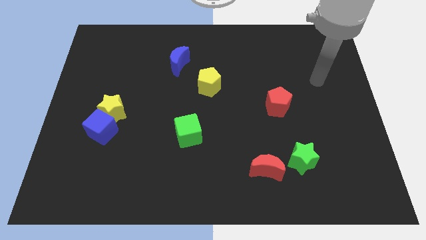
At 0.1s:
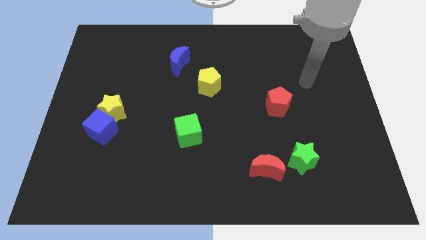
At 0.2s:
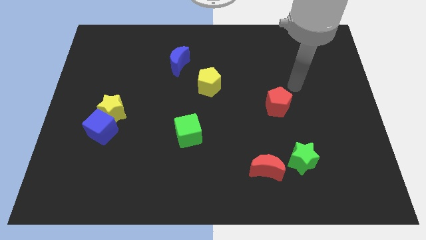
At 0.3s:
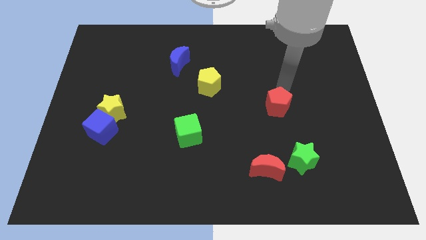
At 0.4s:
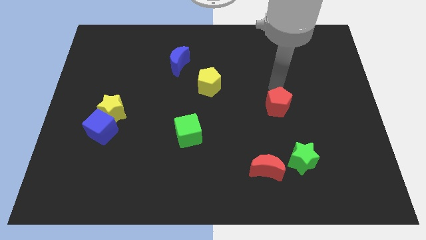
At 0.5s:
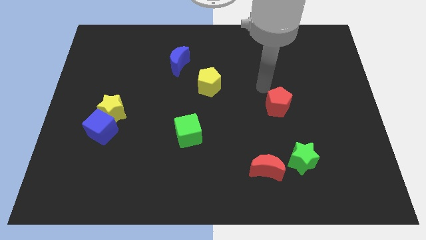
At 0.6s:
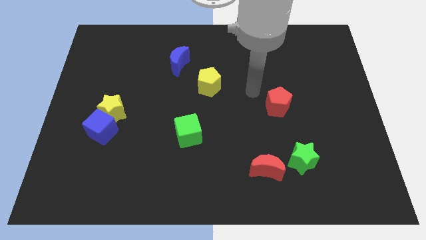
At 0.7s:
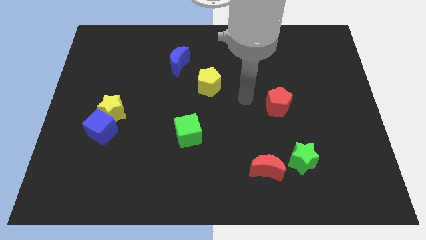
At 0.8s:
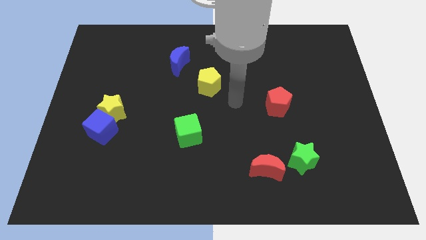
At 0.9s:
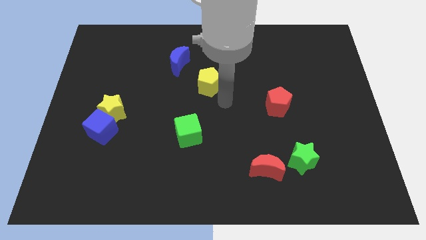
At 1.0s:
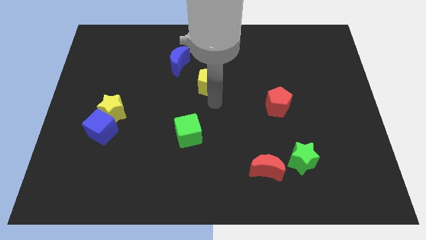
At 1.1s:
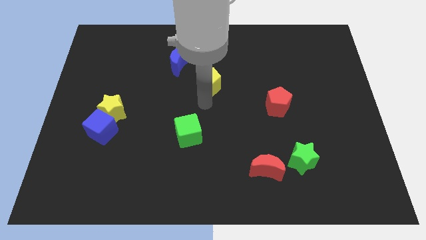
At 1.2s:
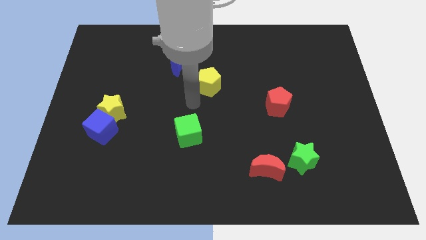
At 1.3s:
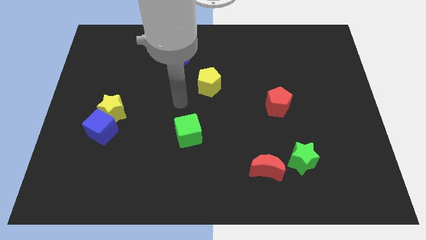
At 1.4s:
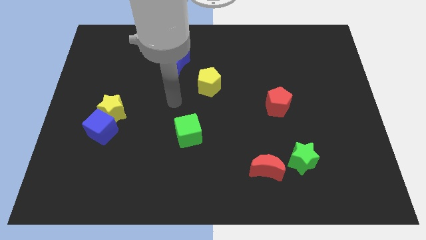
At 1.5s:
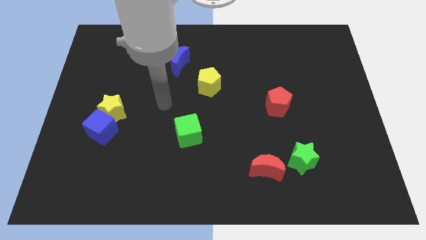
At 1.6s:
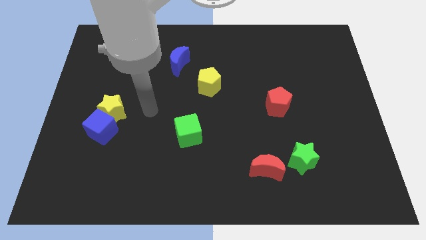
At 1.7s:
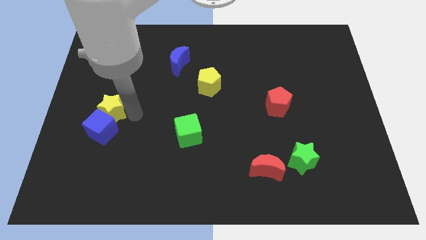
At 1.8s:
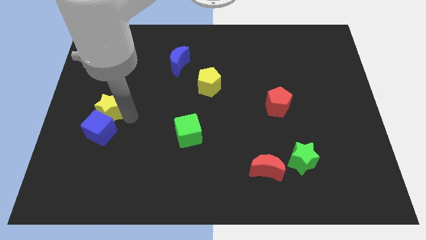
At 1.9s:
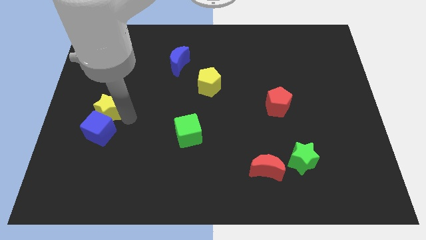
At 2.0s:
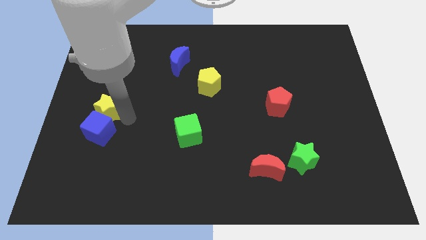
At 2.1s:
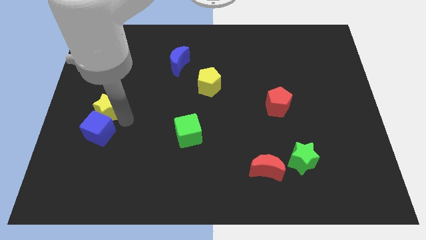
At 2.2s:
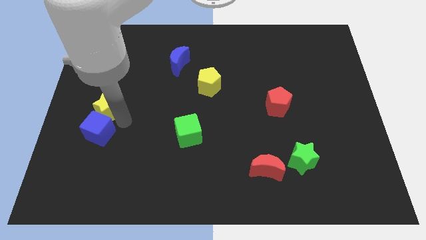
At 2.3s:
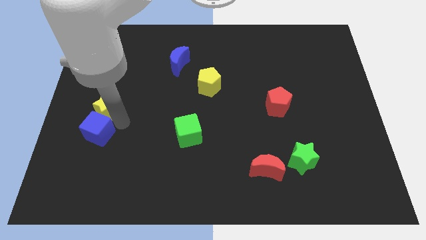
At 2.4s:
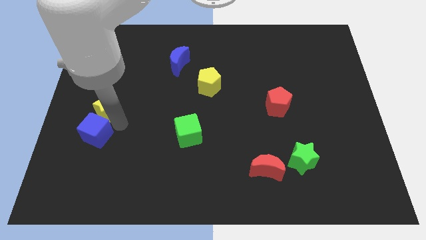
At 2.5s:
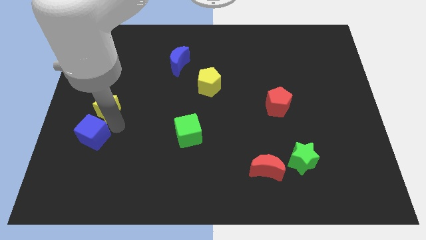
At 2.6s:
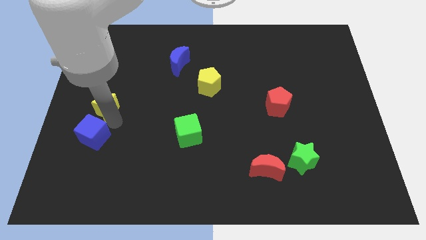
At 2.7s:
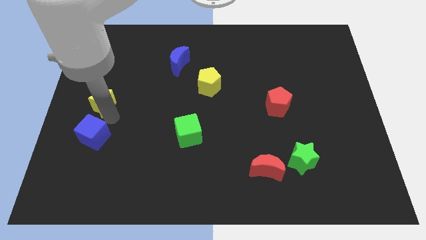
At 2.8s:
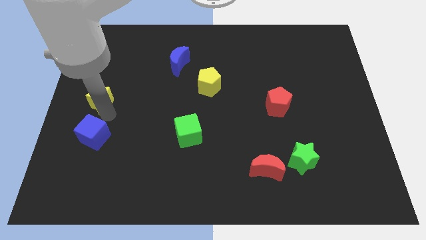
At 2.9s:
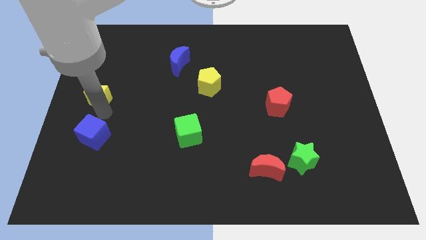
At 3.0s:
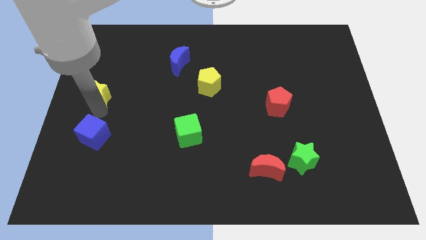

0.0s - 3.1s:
move the blue cube away from the yellow star

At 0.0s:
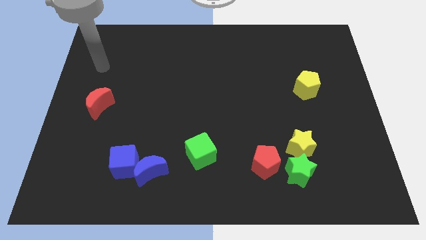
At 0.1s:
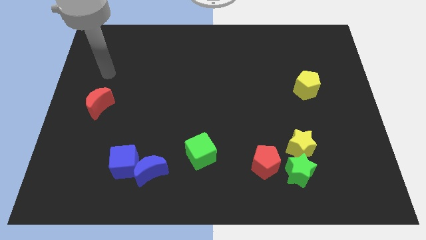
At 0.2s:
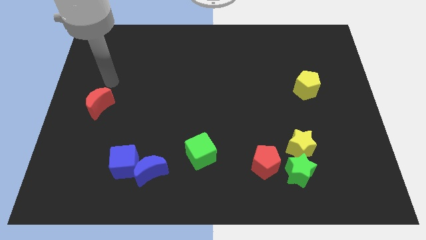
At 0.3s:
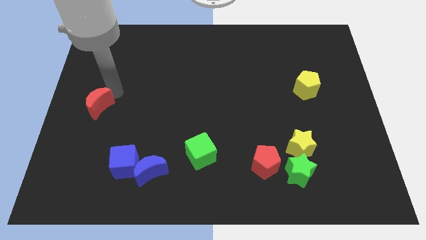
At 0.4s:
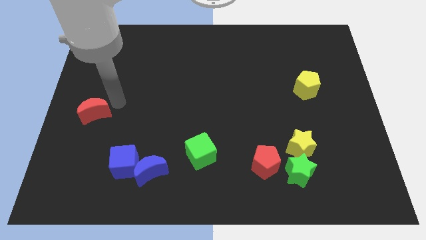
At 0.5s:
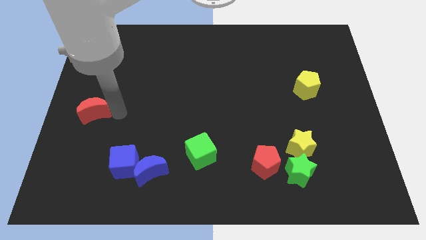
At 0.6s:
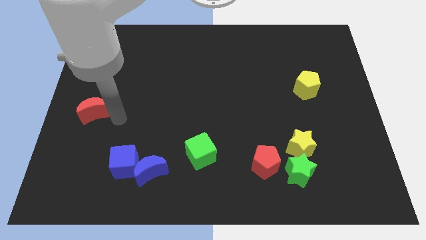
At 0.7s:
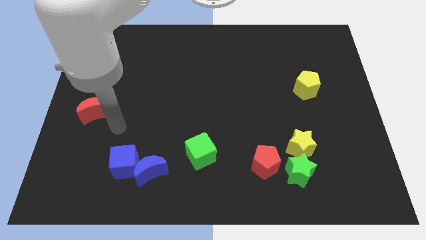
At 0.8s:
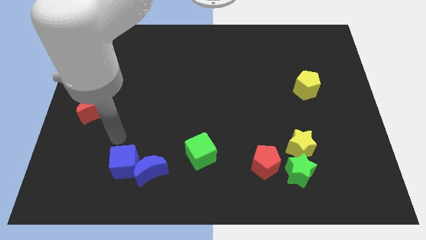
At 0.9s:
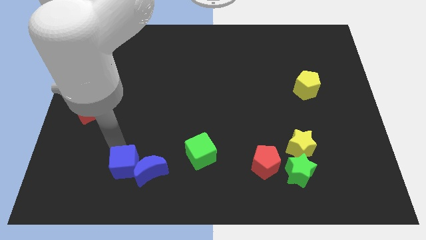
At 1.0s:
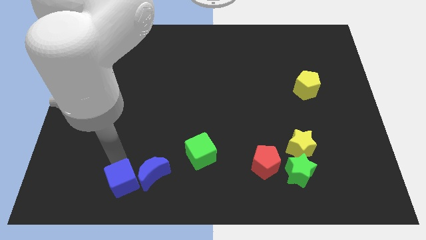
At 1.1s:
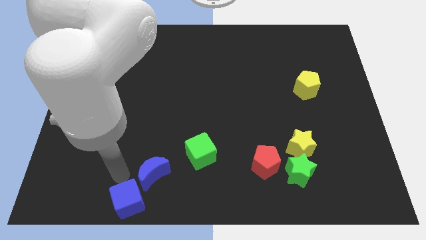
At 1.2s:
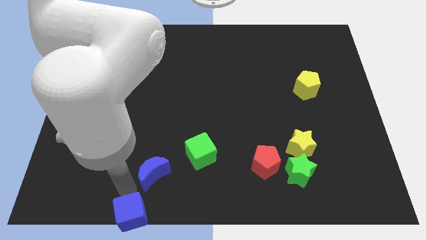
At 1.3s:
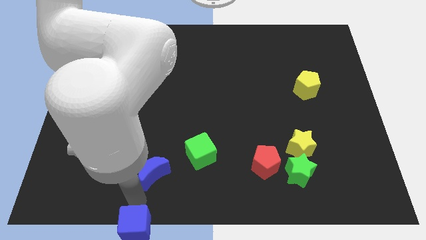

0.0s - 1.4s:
move the blue moon away from the blue cube

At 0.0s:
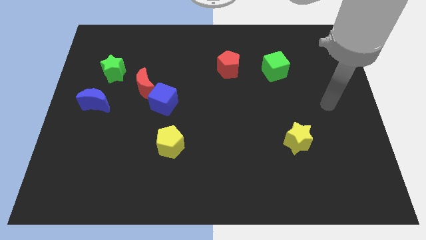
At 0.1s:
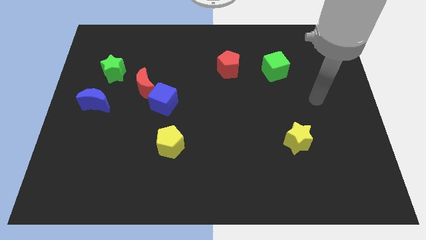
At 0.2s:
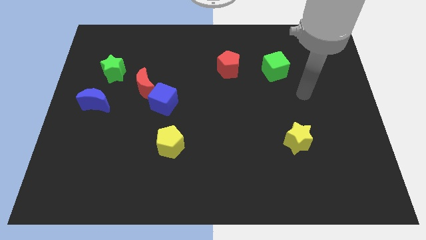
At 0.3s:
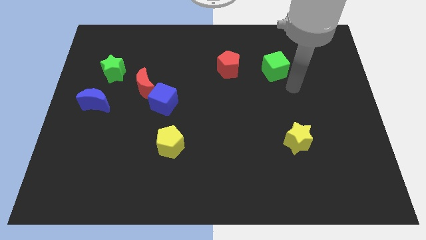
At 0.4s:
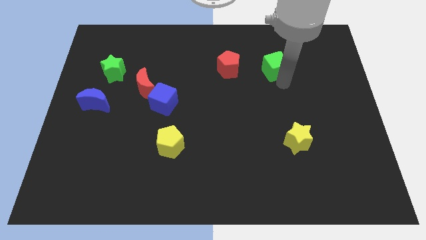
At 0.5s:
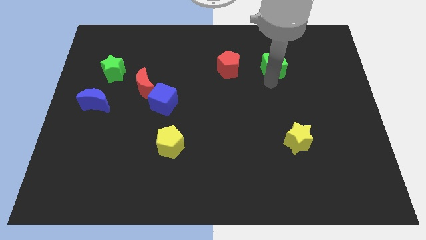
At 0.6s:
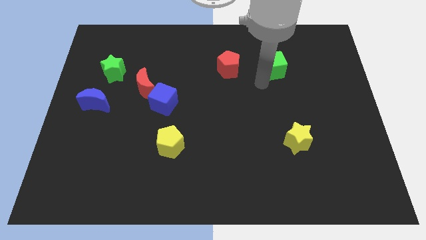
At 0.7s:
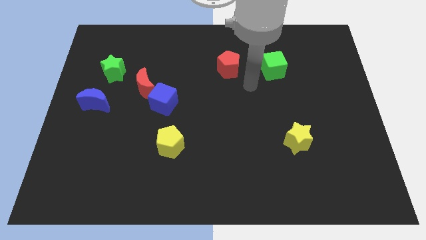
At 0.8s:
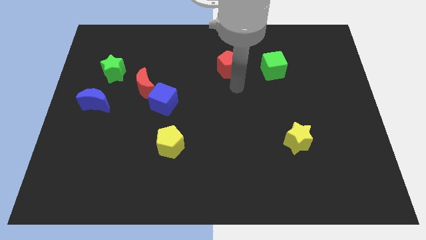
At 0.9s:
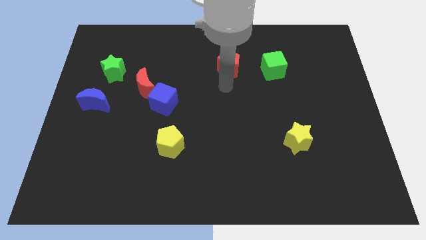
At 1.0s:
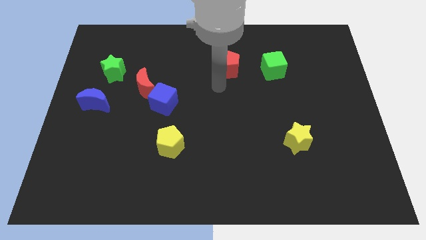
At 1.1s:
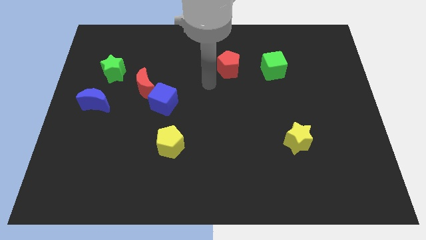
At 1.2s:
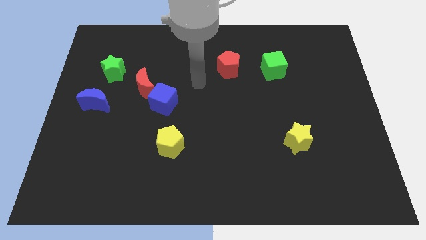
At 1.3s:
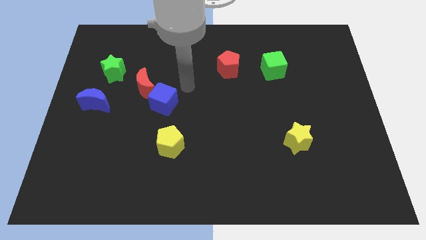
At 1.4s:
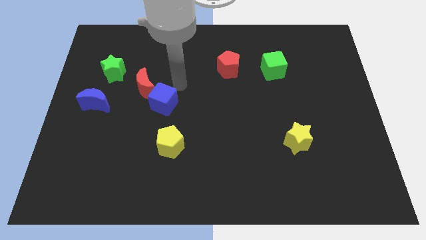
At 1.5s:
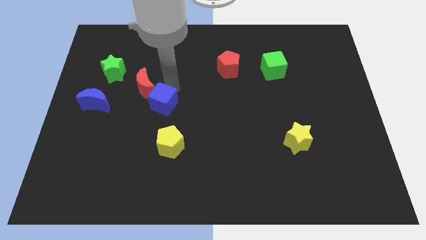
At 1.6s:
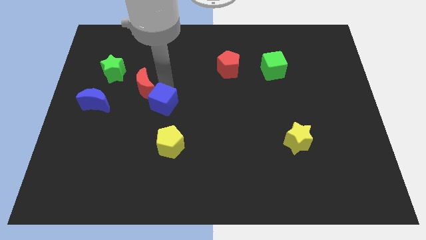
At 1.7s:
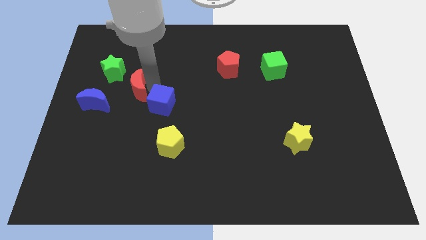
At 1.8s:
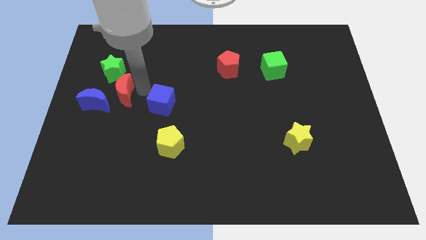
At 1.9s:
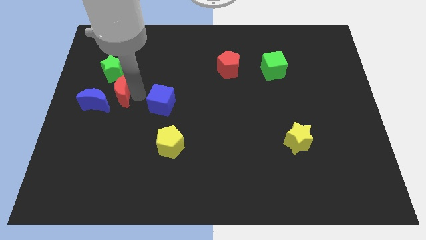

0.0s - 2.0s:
separate the blue cube from the red moon

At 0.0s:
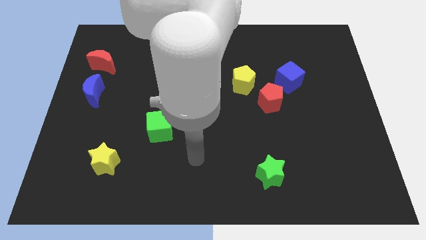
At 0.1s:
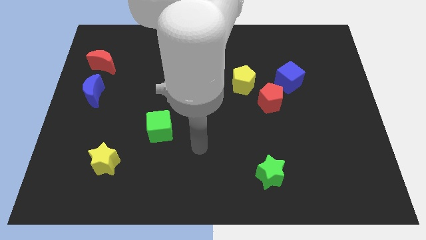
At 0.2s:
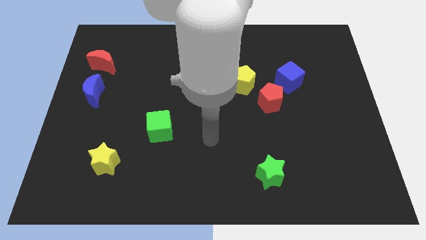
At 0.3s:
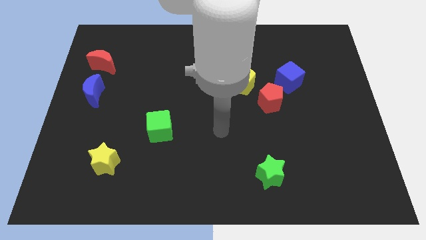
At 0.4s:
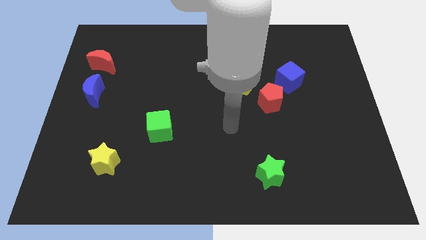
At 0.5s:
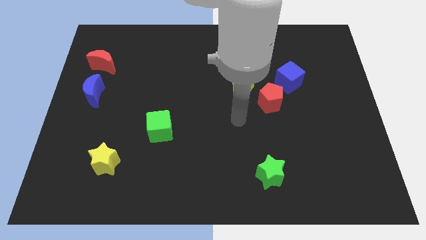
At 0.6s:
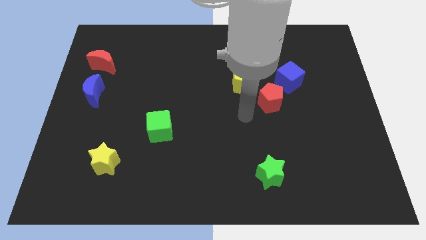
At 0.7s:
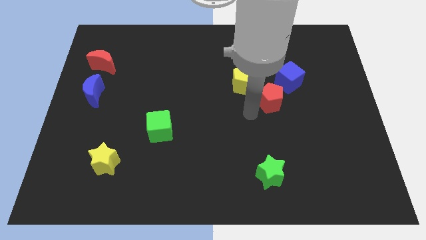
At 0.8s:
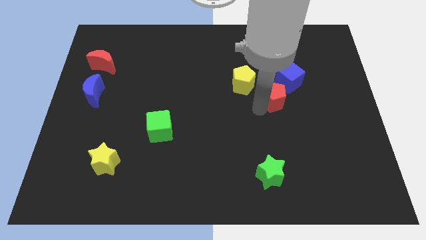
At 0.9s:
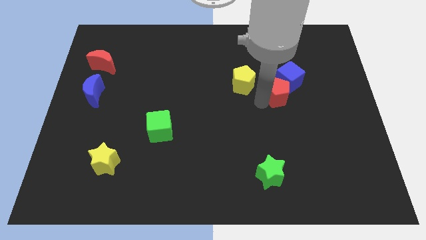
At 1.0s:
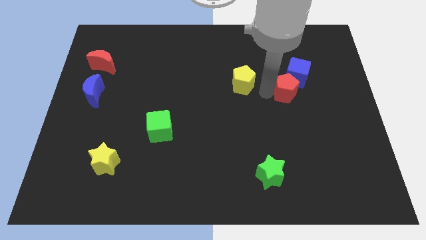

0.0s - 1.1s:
separate the yellow pentagon from the red pentagon

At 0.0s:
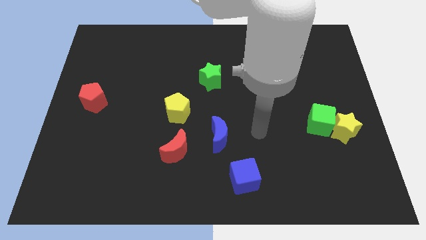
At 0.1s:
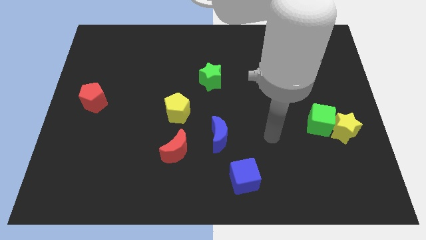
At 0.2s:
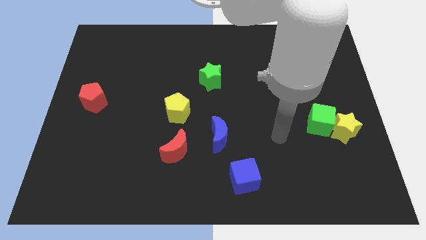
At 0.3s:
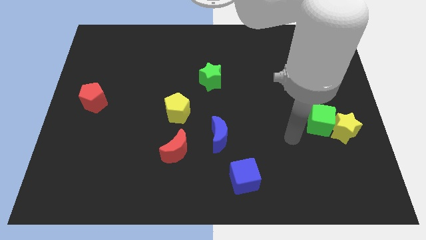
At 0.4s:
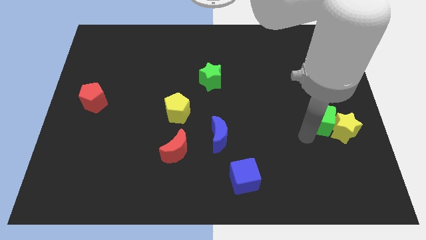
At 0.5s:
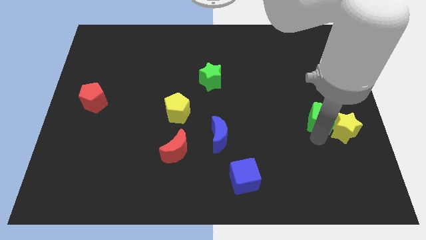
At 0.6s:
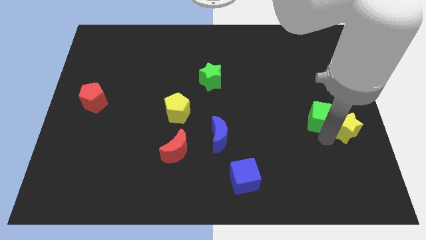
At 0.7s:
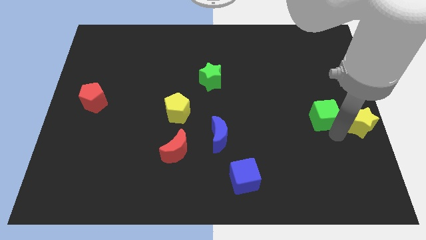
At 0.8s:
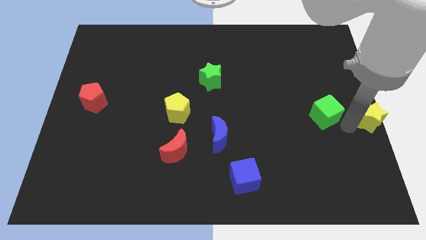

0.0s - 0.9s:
move the green cube away from the yellow star

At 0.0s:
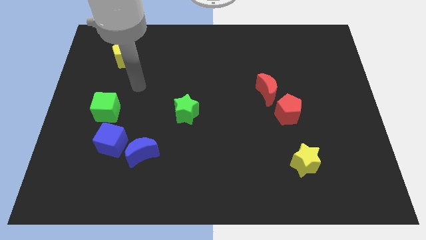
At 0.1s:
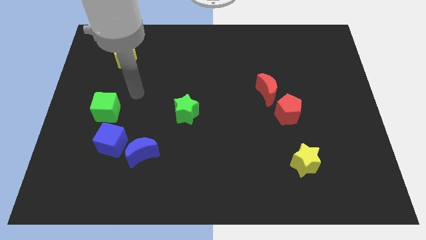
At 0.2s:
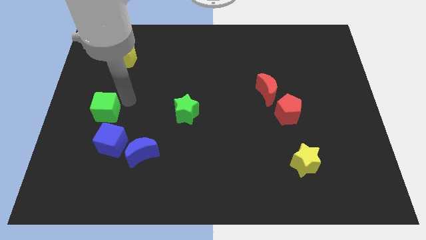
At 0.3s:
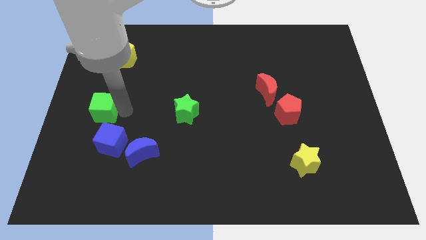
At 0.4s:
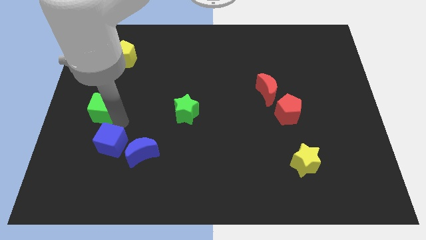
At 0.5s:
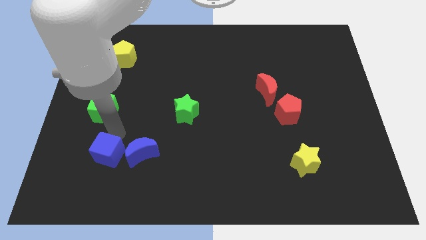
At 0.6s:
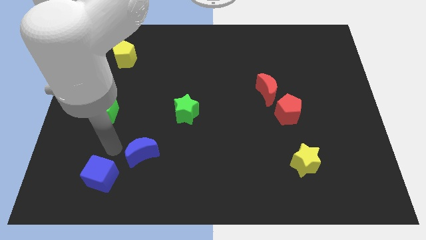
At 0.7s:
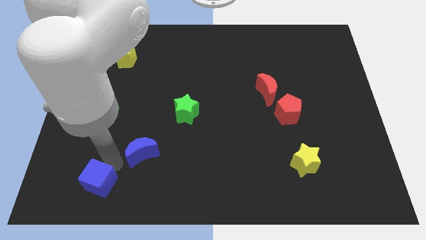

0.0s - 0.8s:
pull the blue moon apart from the blue cube
